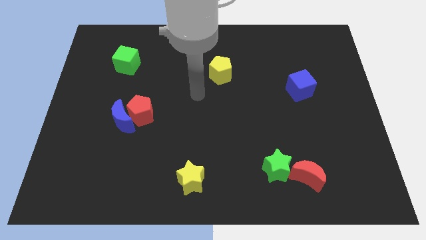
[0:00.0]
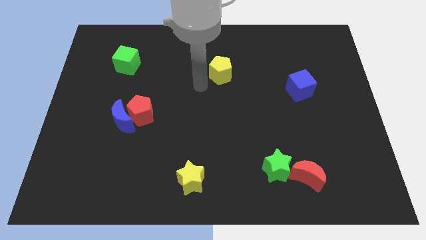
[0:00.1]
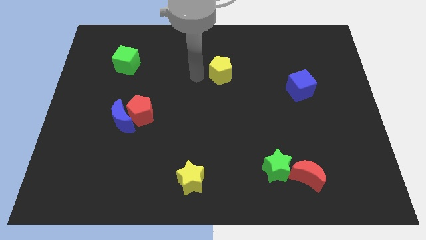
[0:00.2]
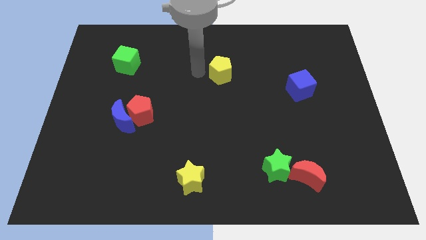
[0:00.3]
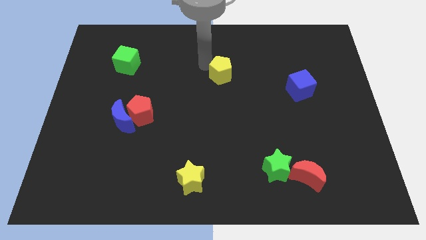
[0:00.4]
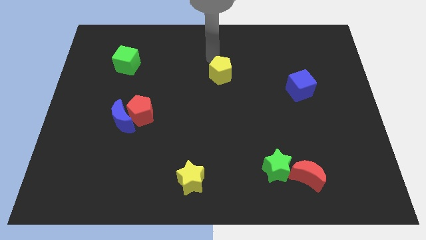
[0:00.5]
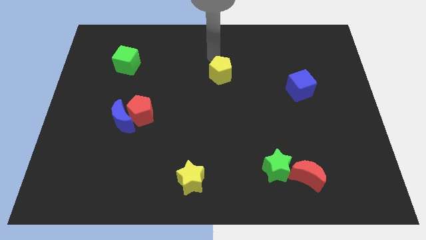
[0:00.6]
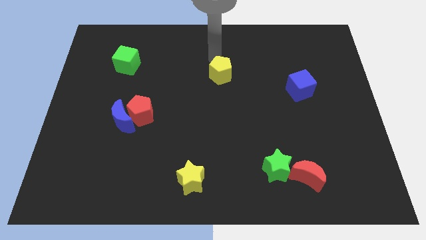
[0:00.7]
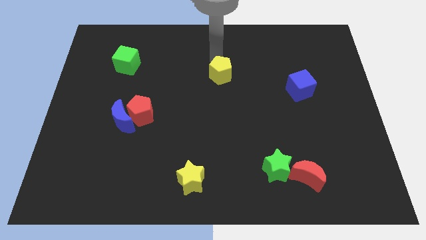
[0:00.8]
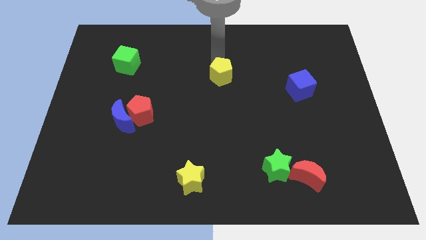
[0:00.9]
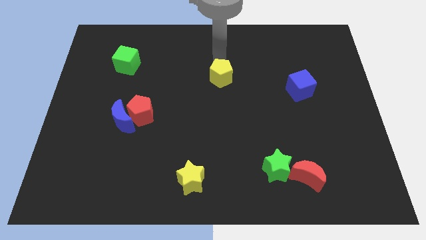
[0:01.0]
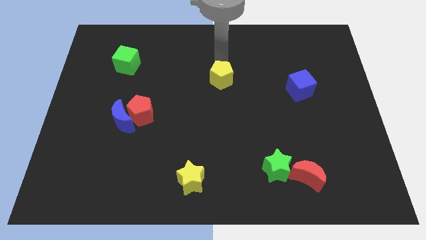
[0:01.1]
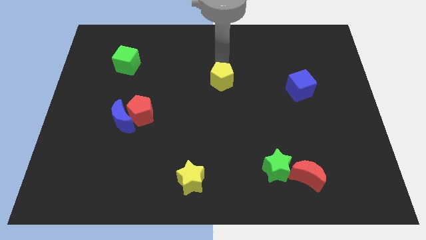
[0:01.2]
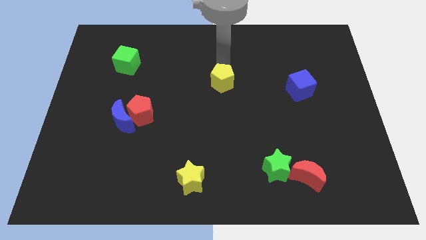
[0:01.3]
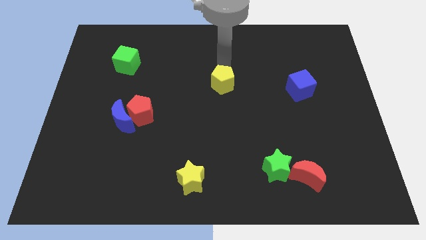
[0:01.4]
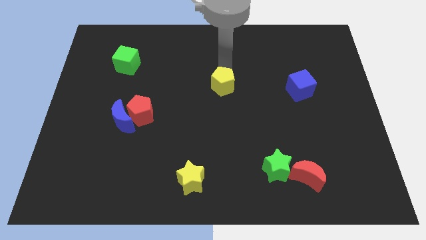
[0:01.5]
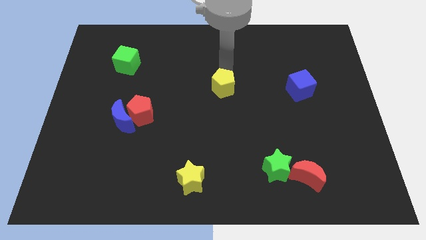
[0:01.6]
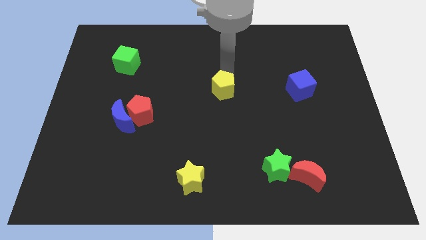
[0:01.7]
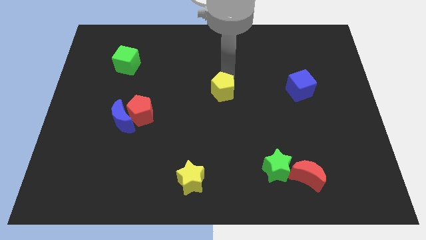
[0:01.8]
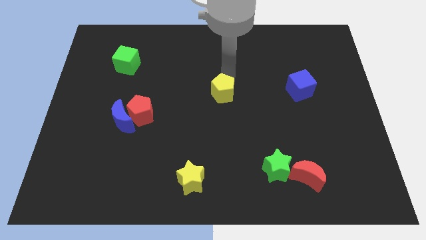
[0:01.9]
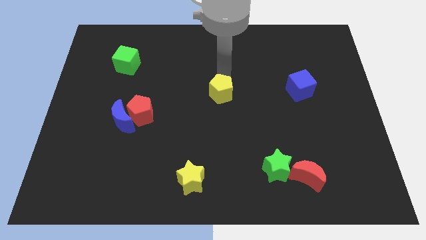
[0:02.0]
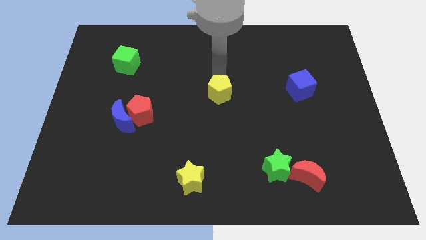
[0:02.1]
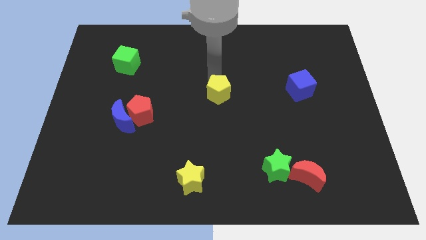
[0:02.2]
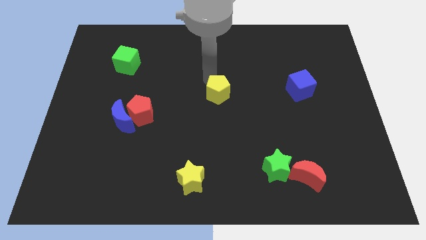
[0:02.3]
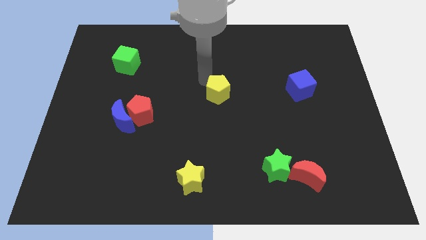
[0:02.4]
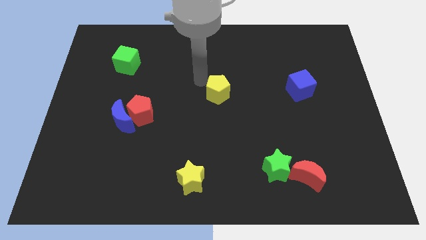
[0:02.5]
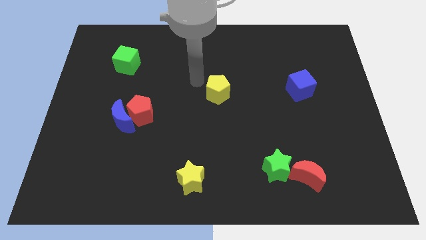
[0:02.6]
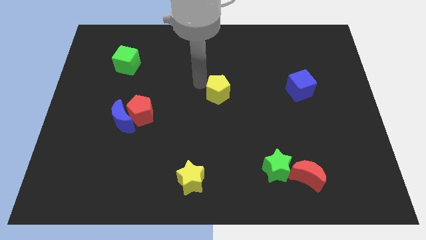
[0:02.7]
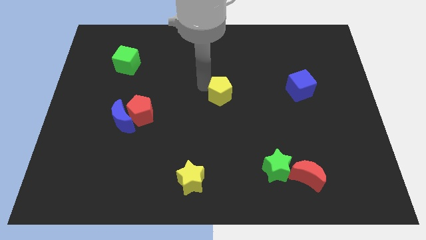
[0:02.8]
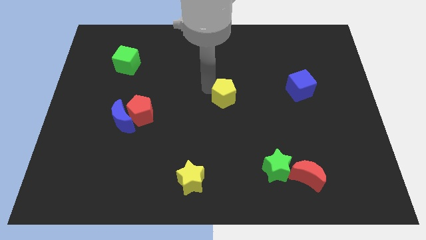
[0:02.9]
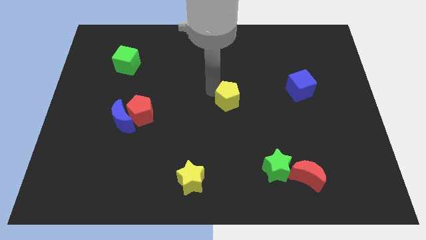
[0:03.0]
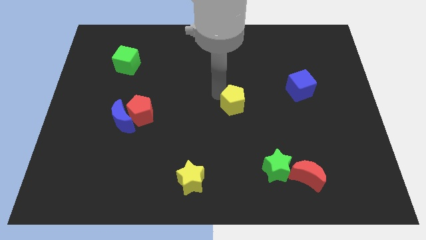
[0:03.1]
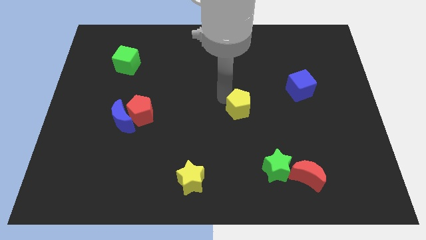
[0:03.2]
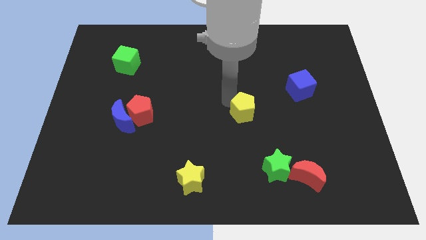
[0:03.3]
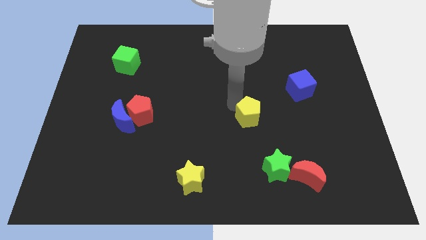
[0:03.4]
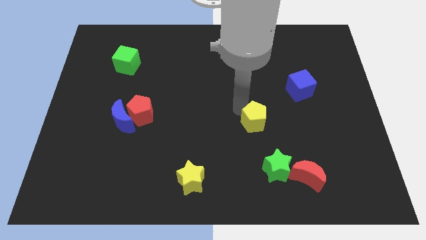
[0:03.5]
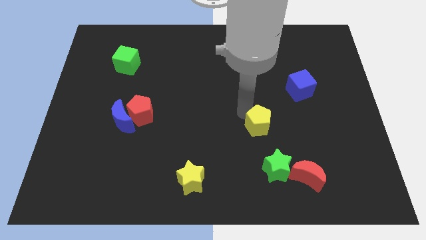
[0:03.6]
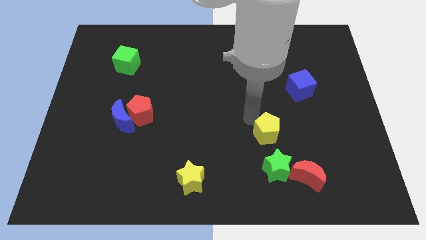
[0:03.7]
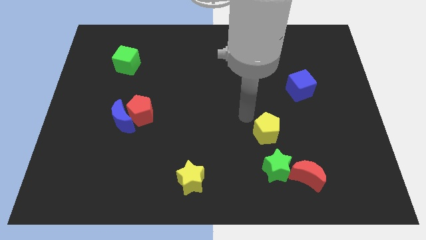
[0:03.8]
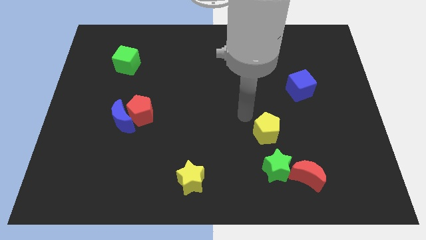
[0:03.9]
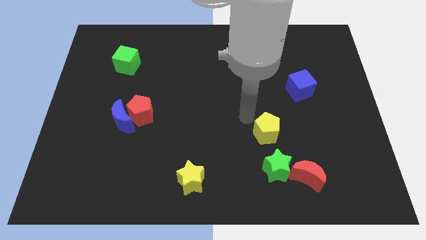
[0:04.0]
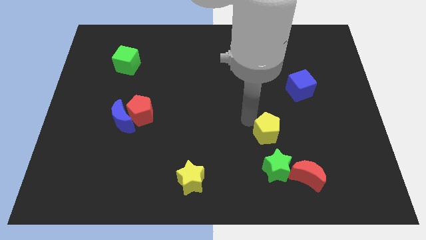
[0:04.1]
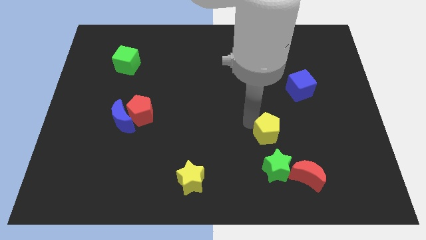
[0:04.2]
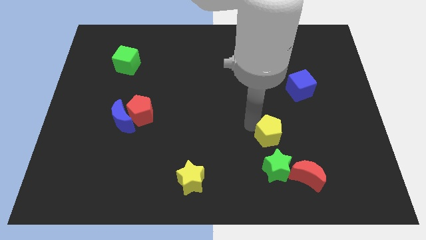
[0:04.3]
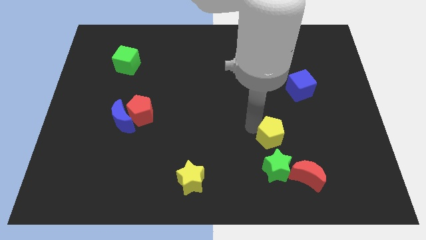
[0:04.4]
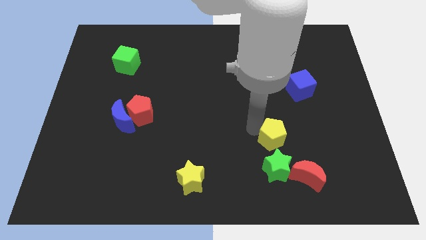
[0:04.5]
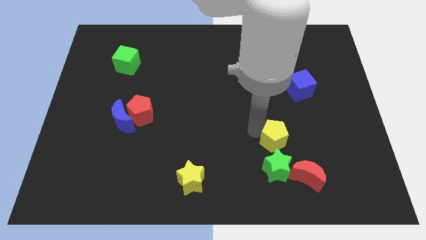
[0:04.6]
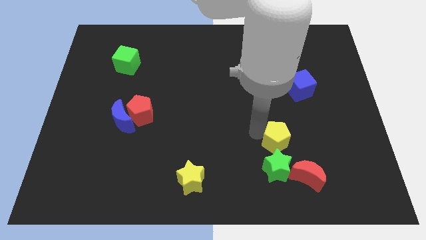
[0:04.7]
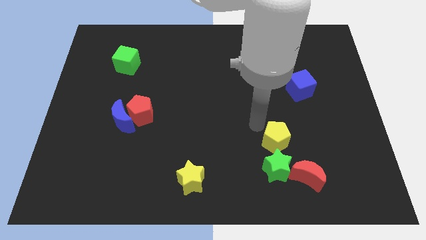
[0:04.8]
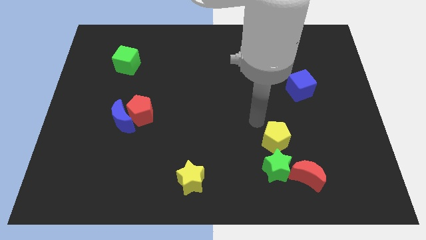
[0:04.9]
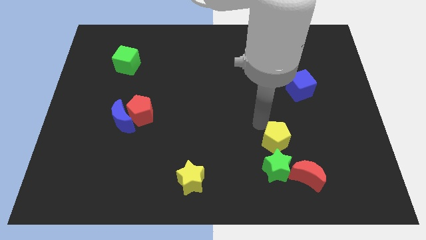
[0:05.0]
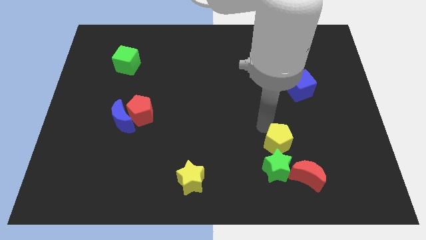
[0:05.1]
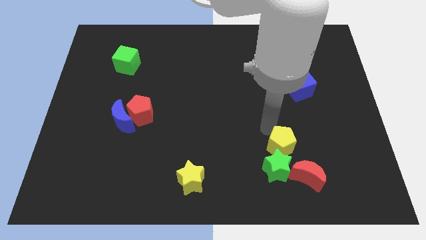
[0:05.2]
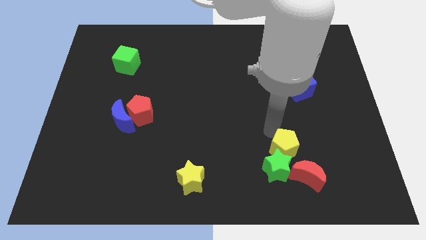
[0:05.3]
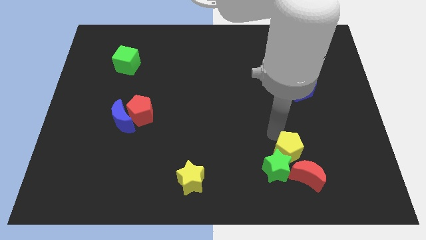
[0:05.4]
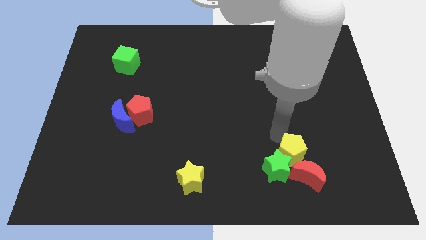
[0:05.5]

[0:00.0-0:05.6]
push the yellow pentagon close to the red moon

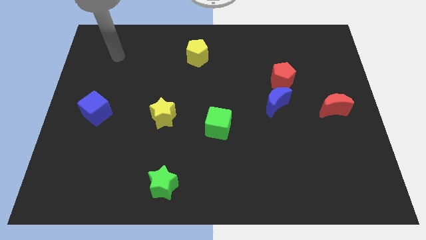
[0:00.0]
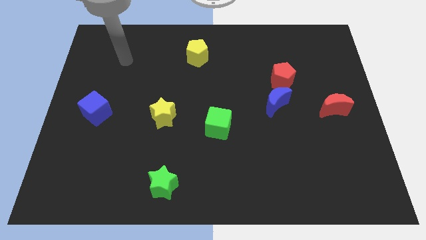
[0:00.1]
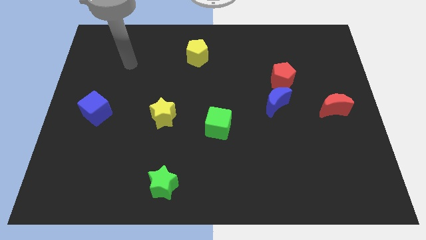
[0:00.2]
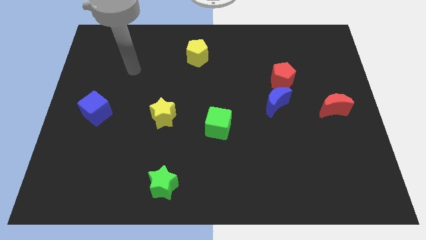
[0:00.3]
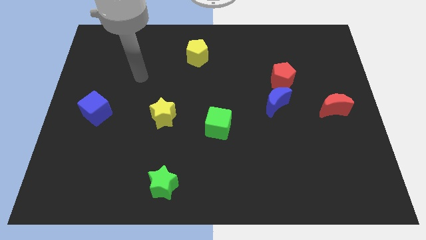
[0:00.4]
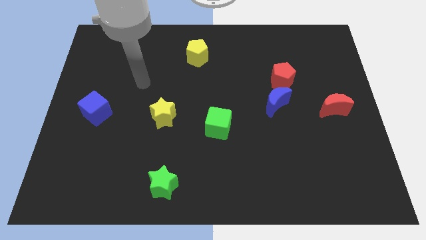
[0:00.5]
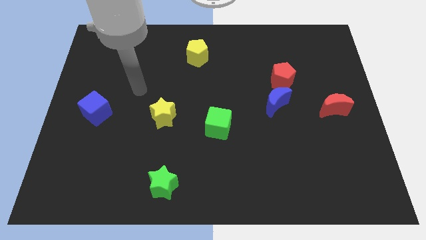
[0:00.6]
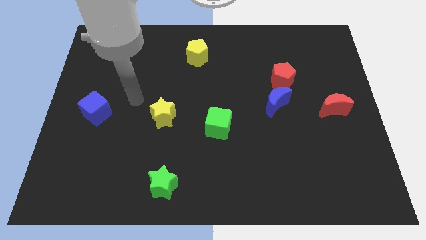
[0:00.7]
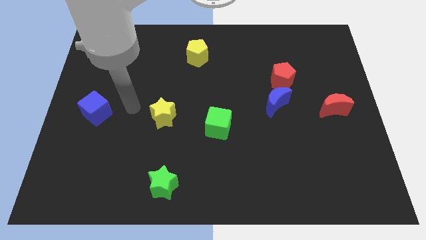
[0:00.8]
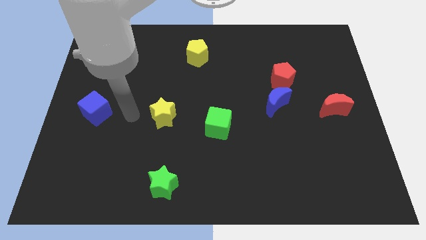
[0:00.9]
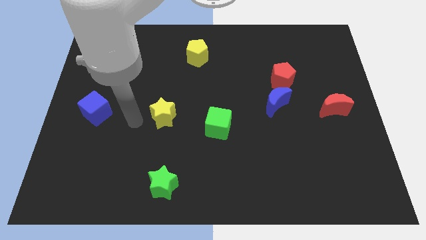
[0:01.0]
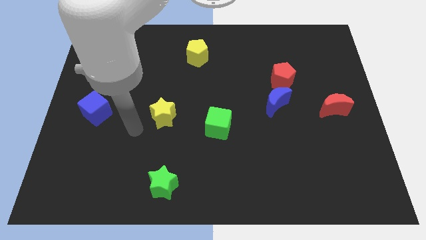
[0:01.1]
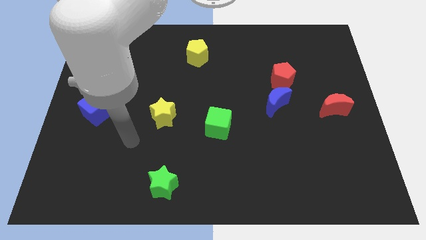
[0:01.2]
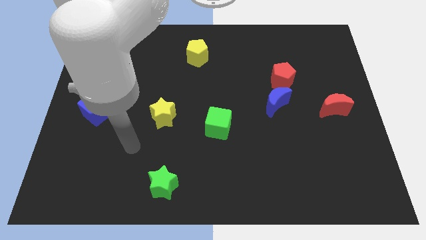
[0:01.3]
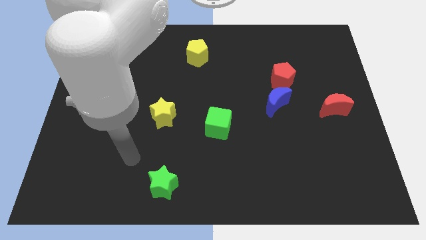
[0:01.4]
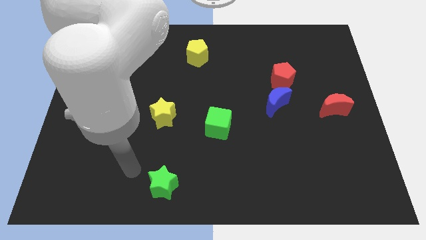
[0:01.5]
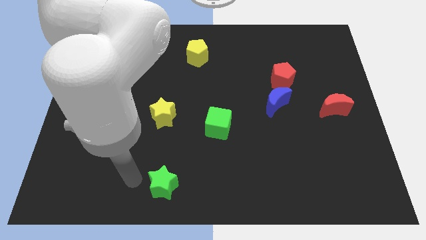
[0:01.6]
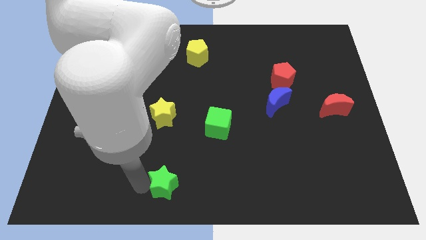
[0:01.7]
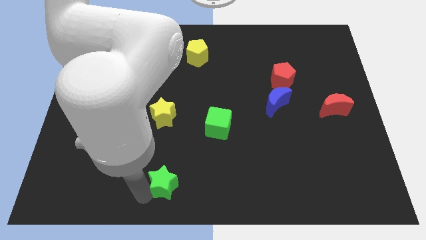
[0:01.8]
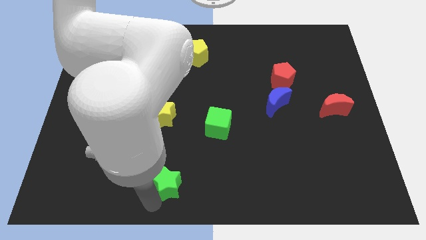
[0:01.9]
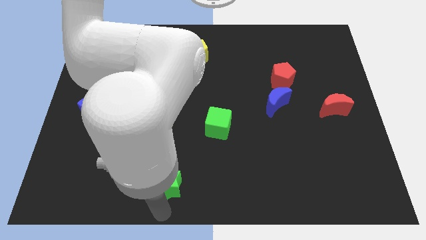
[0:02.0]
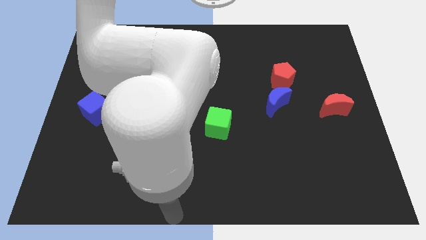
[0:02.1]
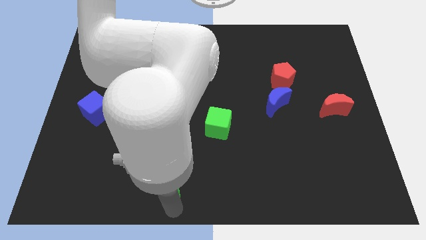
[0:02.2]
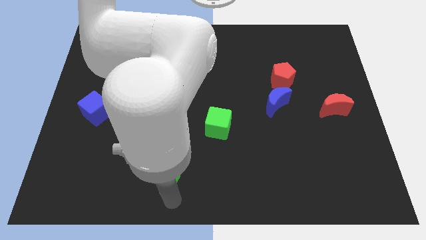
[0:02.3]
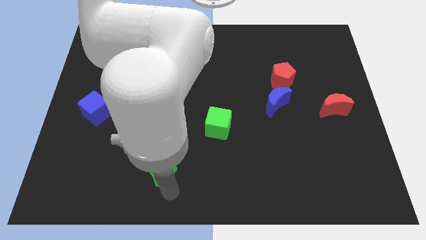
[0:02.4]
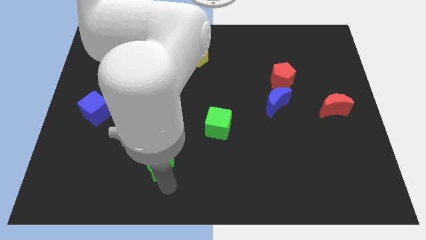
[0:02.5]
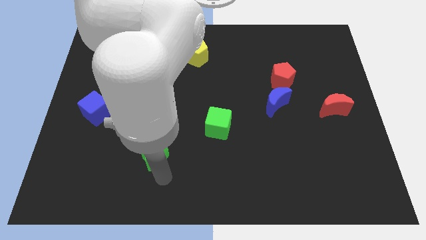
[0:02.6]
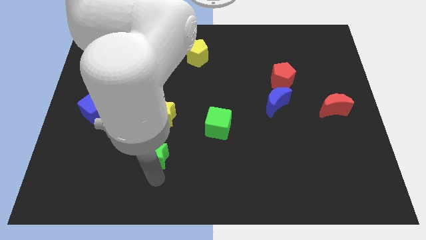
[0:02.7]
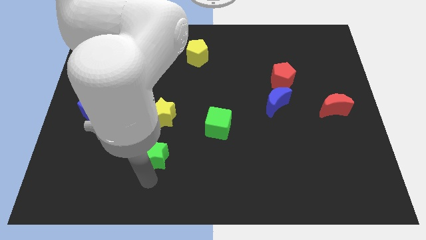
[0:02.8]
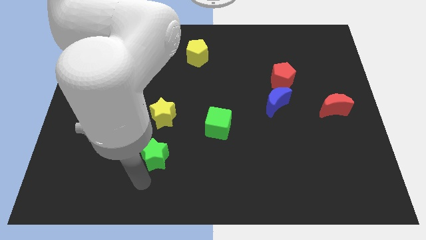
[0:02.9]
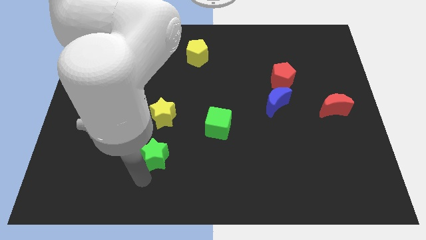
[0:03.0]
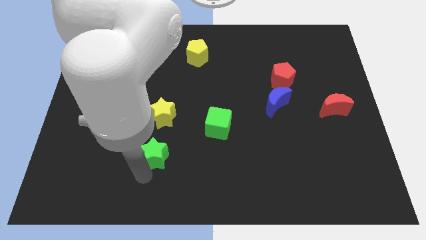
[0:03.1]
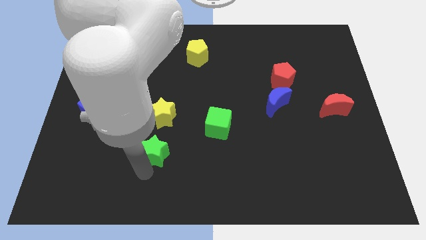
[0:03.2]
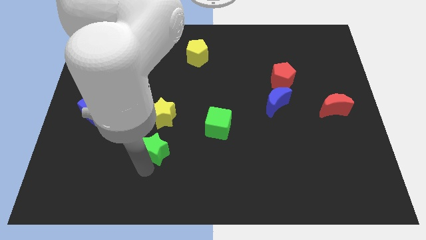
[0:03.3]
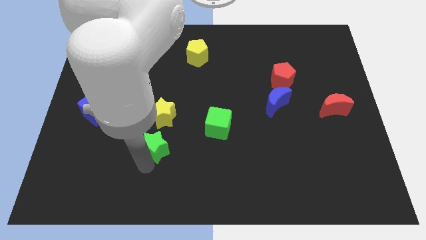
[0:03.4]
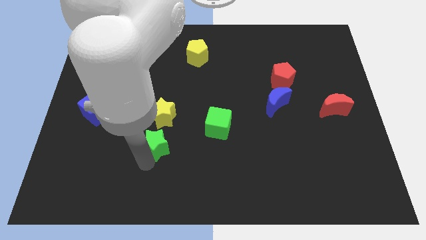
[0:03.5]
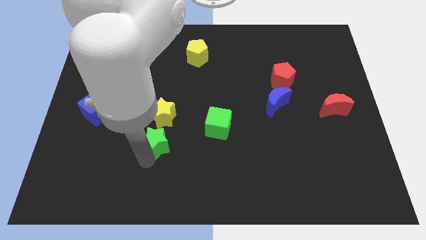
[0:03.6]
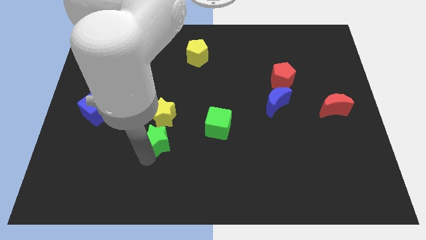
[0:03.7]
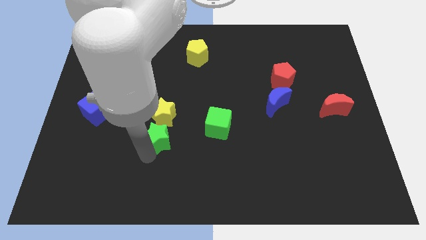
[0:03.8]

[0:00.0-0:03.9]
put the green star to the yellow star
